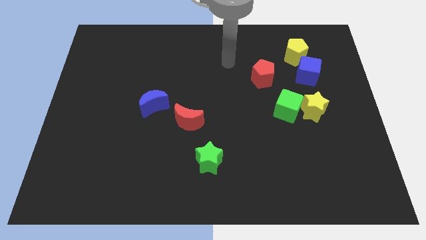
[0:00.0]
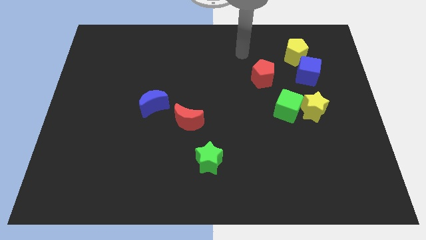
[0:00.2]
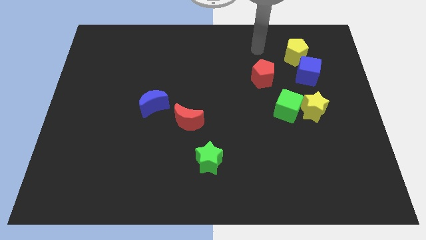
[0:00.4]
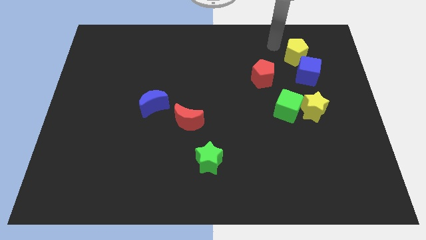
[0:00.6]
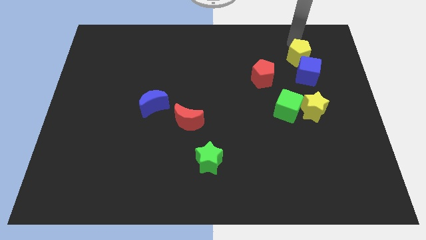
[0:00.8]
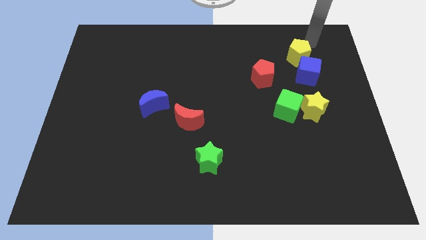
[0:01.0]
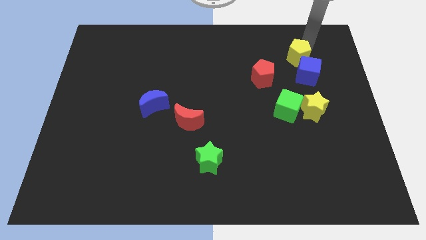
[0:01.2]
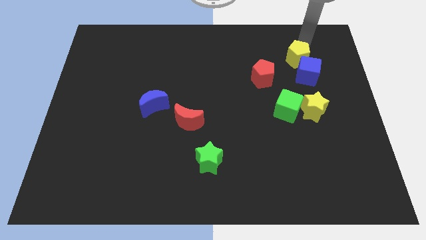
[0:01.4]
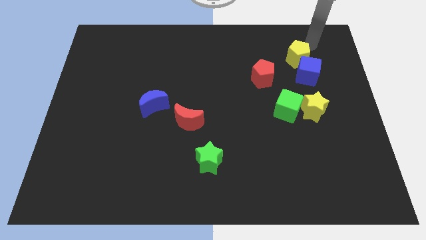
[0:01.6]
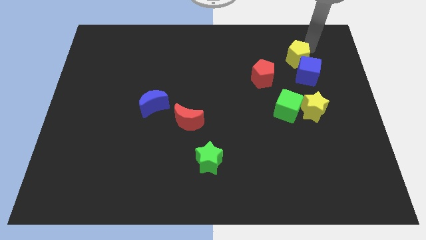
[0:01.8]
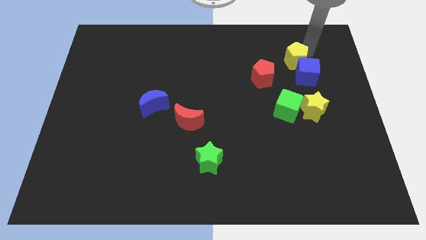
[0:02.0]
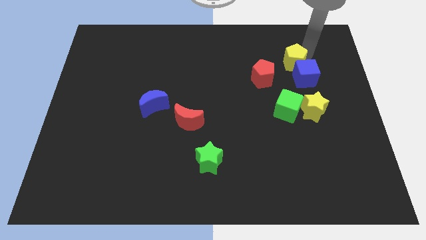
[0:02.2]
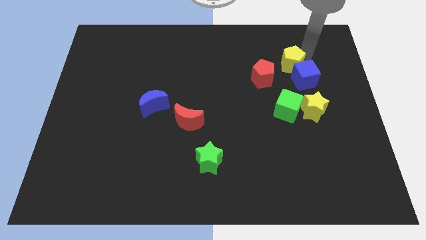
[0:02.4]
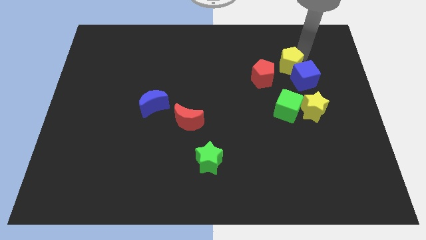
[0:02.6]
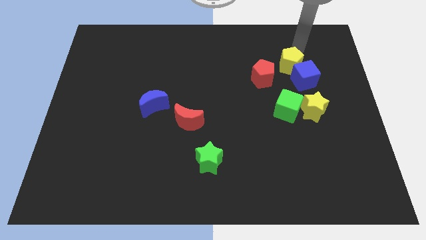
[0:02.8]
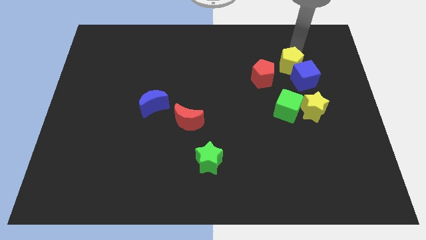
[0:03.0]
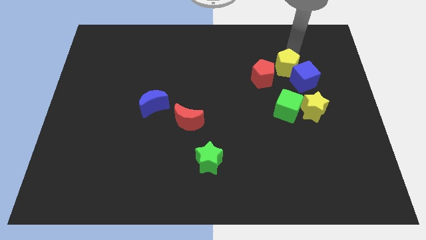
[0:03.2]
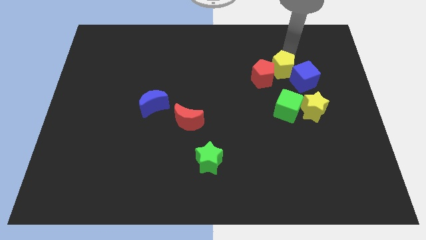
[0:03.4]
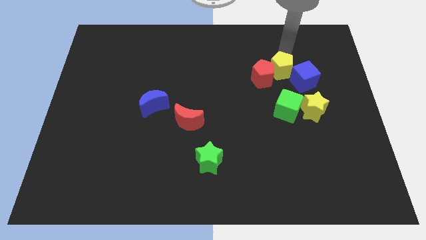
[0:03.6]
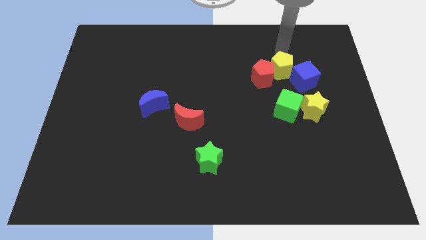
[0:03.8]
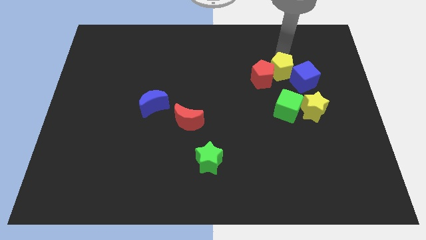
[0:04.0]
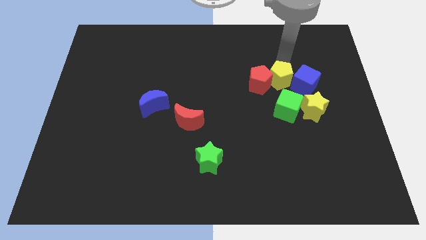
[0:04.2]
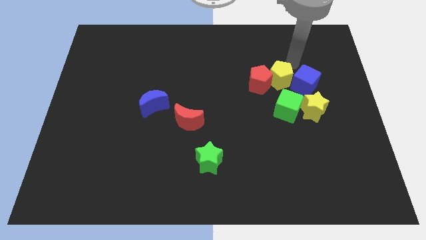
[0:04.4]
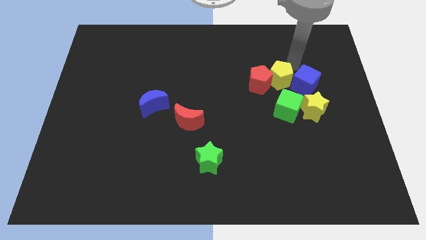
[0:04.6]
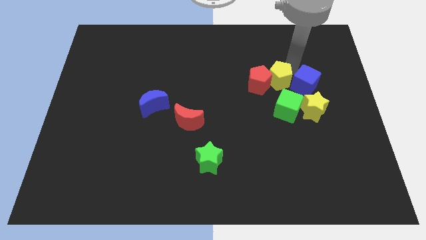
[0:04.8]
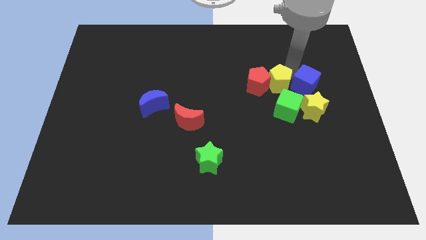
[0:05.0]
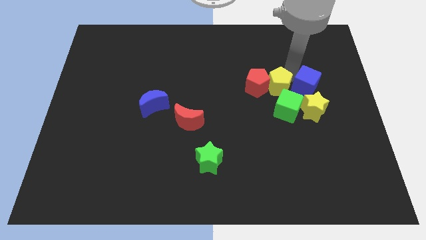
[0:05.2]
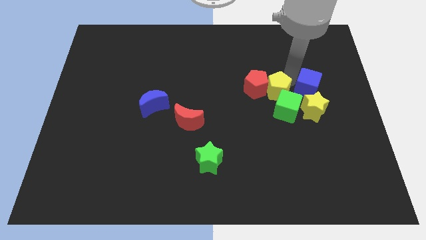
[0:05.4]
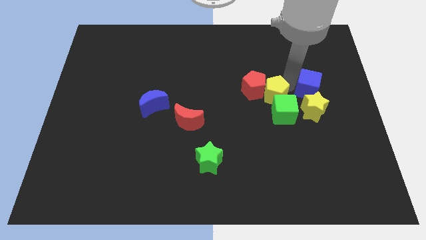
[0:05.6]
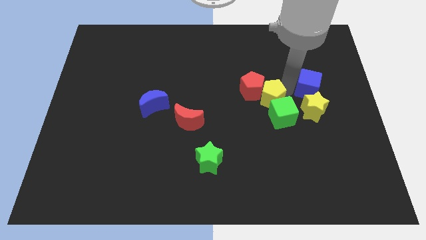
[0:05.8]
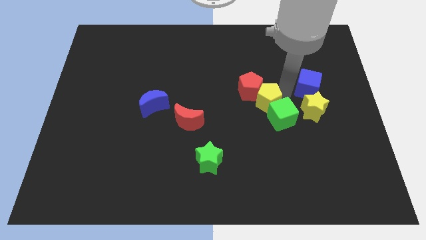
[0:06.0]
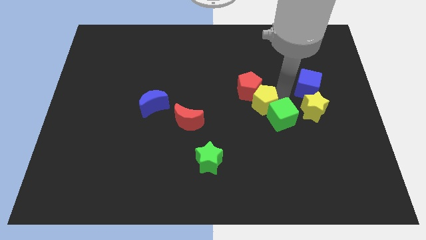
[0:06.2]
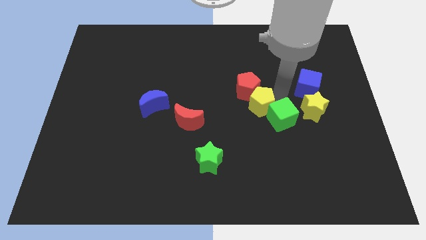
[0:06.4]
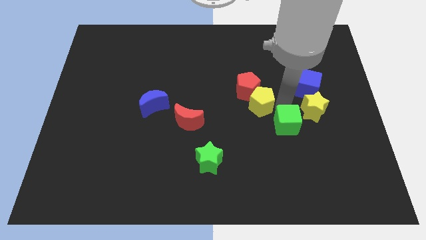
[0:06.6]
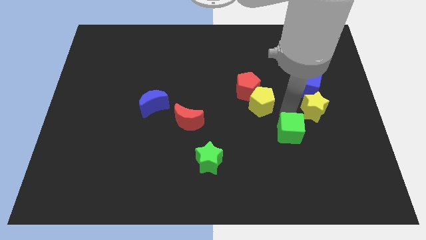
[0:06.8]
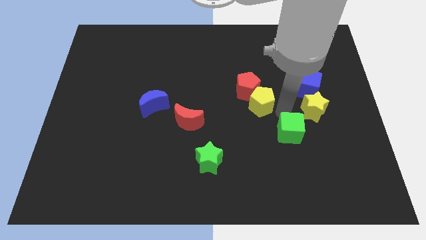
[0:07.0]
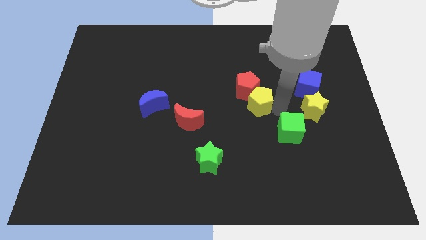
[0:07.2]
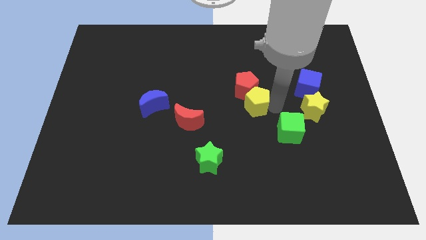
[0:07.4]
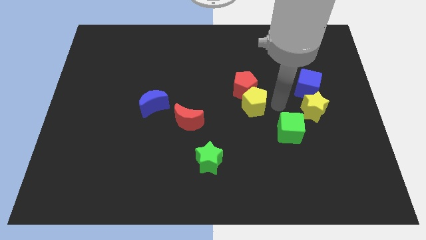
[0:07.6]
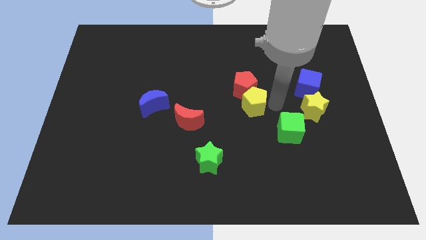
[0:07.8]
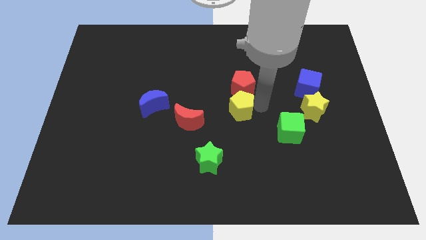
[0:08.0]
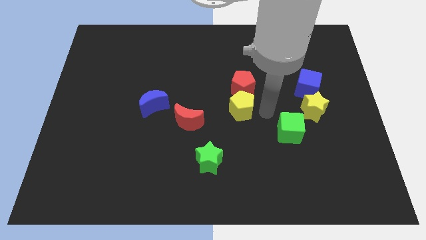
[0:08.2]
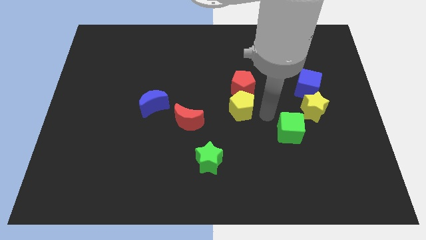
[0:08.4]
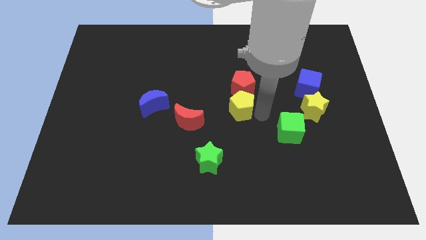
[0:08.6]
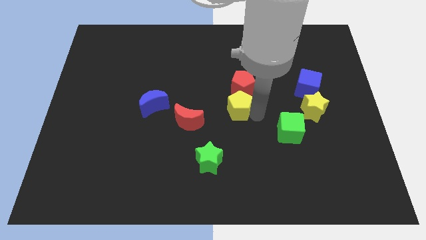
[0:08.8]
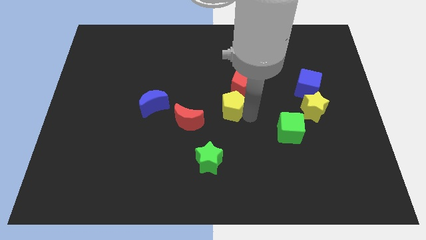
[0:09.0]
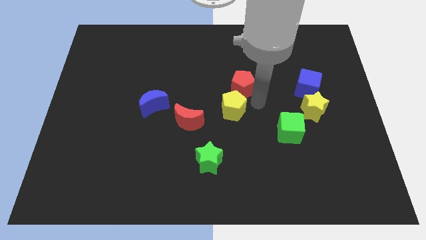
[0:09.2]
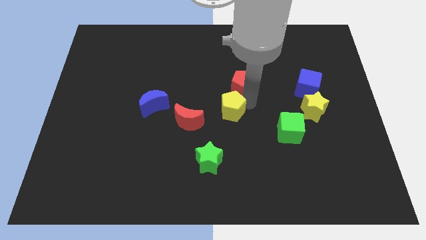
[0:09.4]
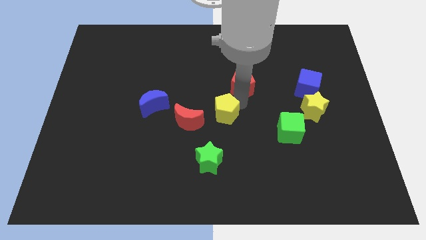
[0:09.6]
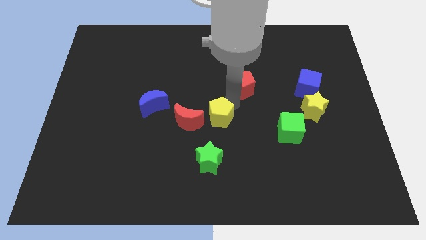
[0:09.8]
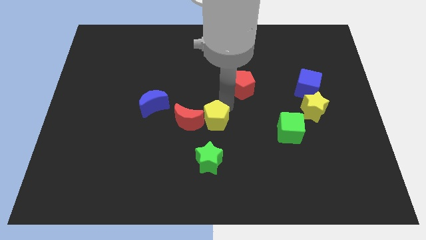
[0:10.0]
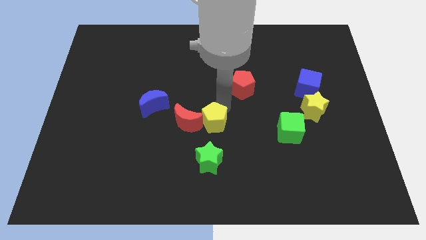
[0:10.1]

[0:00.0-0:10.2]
put the yellow pentagon next to the red moon
